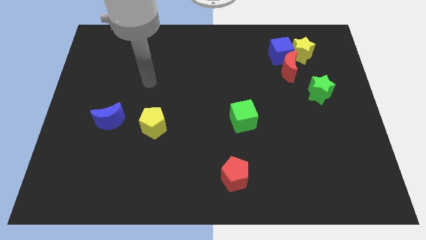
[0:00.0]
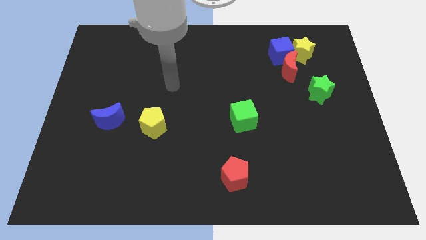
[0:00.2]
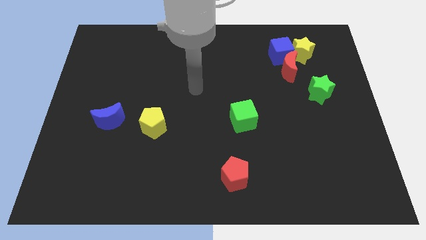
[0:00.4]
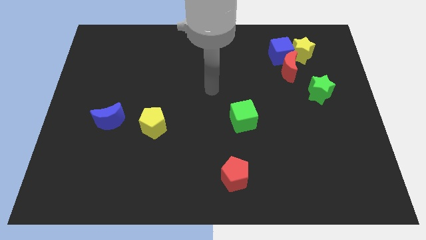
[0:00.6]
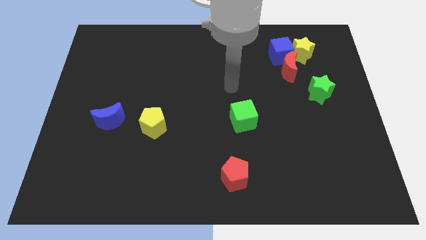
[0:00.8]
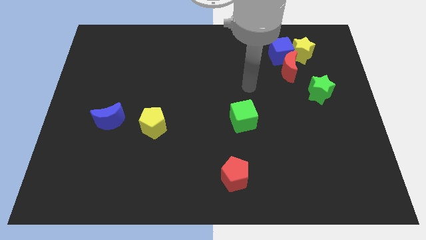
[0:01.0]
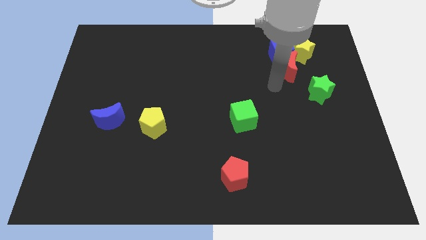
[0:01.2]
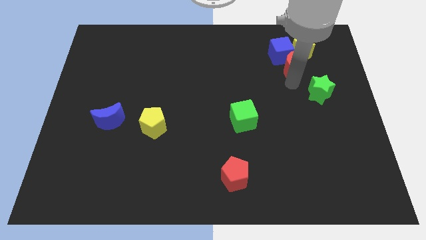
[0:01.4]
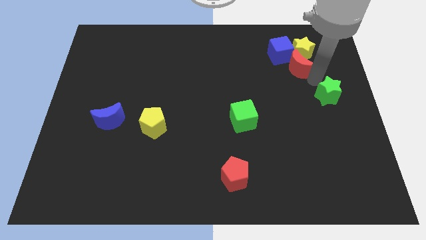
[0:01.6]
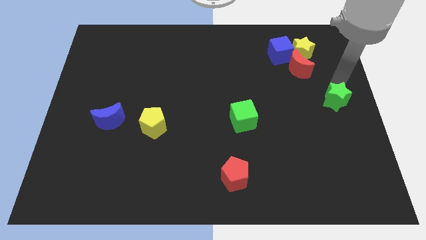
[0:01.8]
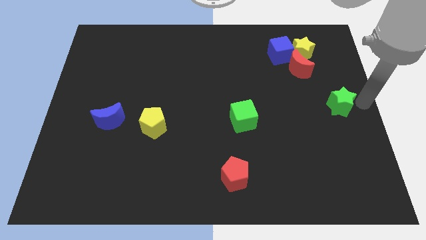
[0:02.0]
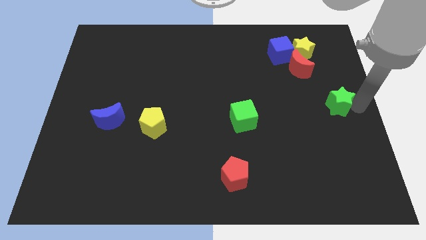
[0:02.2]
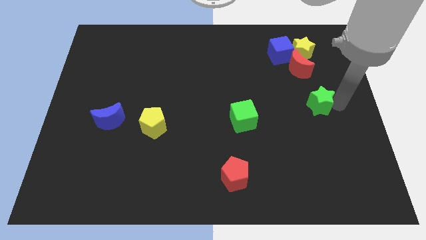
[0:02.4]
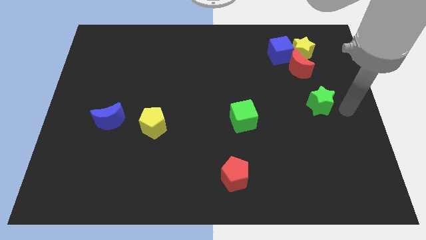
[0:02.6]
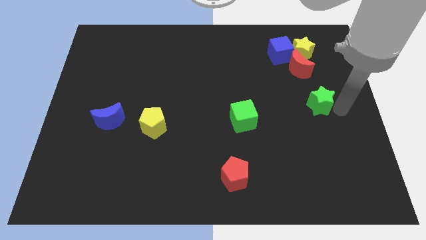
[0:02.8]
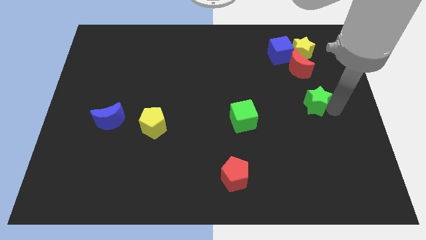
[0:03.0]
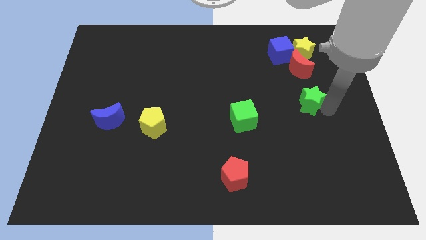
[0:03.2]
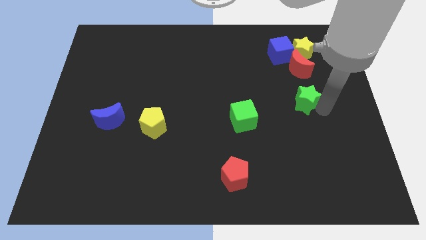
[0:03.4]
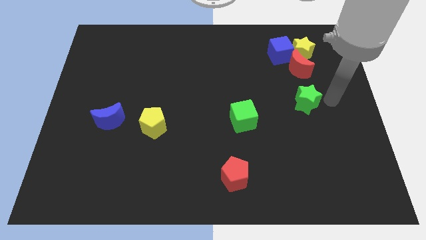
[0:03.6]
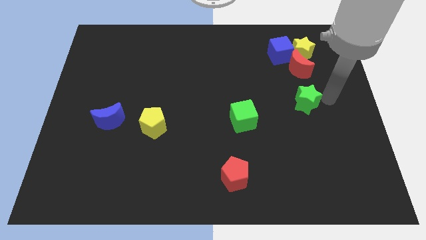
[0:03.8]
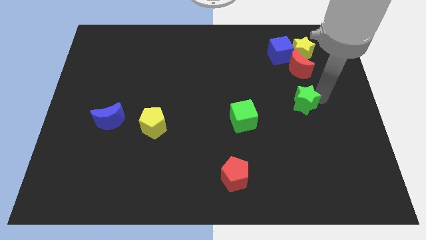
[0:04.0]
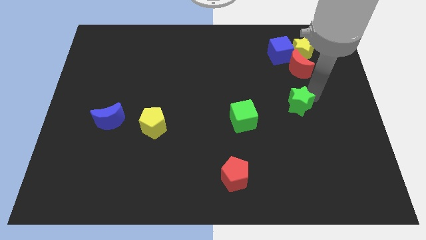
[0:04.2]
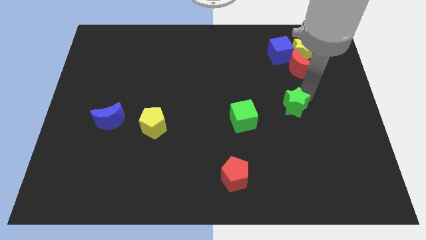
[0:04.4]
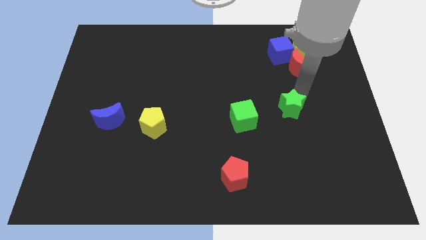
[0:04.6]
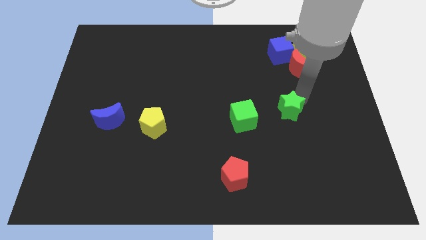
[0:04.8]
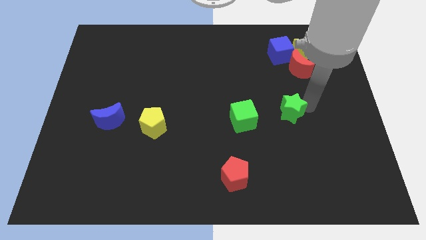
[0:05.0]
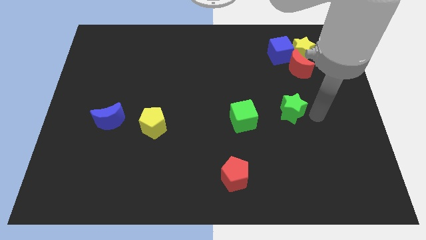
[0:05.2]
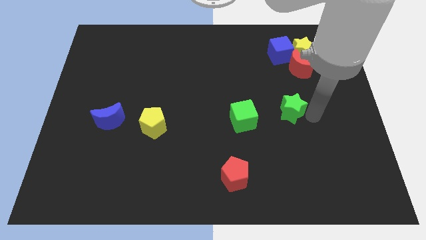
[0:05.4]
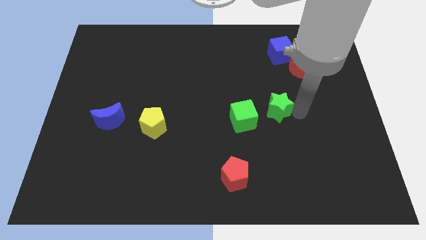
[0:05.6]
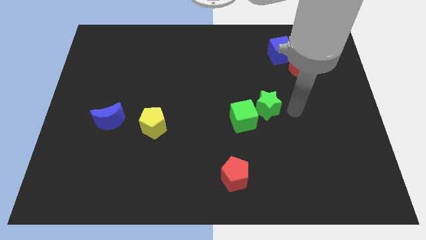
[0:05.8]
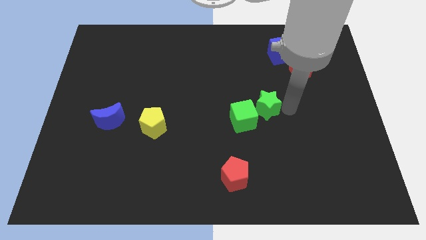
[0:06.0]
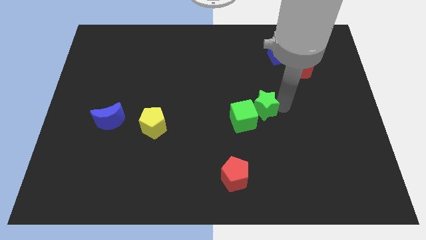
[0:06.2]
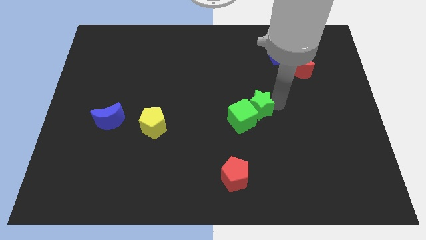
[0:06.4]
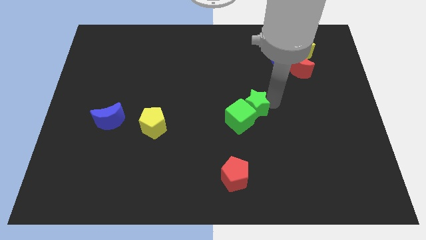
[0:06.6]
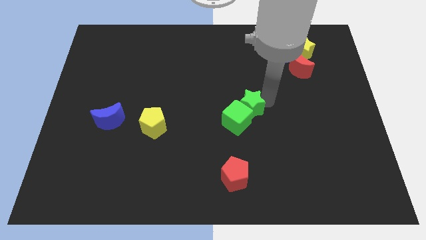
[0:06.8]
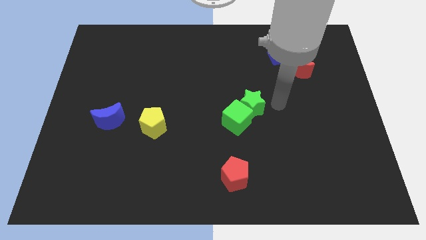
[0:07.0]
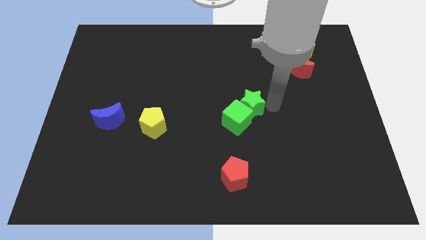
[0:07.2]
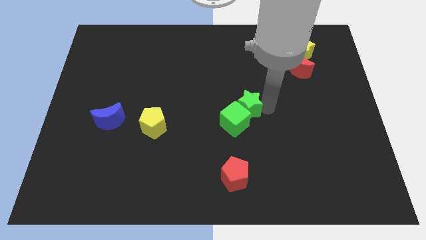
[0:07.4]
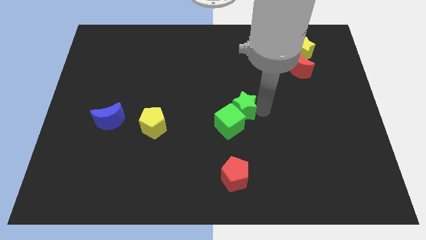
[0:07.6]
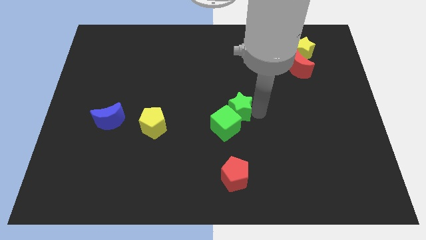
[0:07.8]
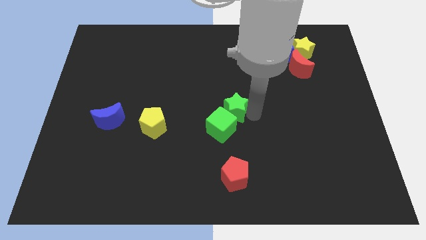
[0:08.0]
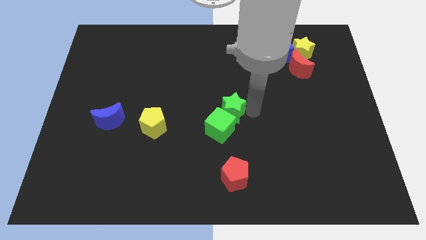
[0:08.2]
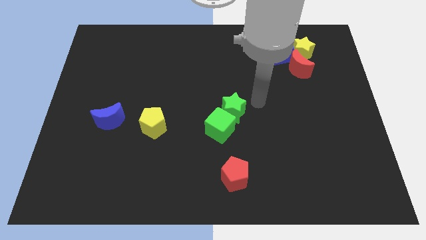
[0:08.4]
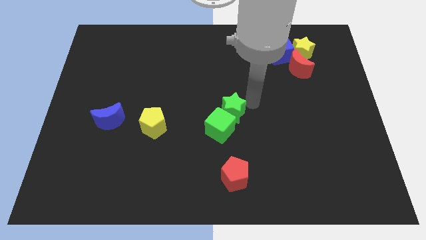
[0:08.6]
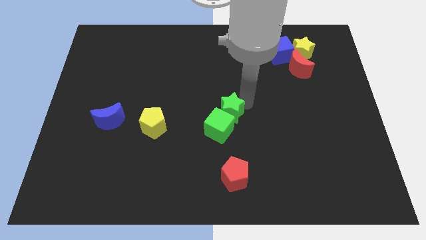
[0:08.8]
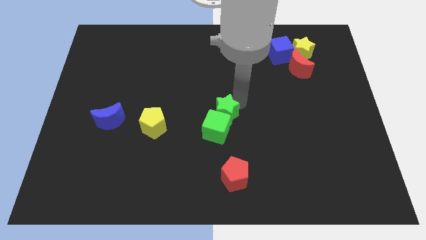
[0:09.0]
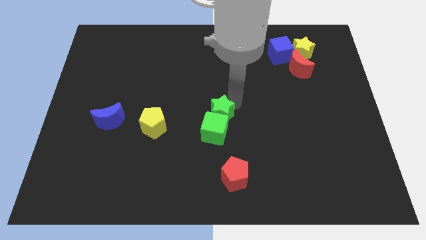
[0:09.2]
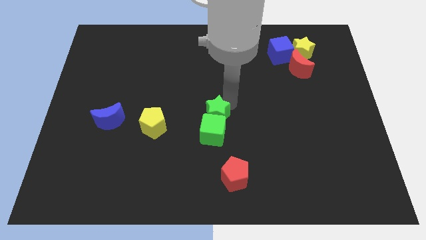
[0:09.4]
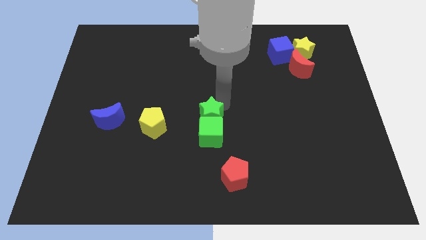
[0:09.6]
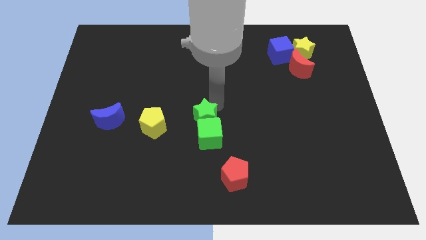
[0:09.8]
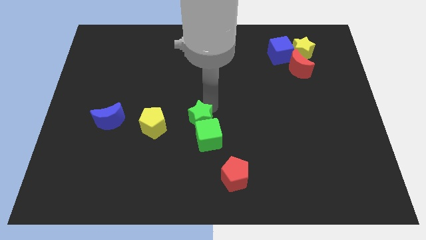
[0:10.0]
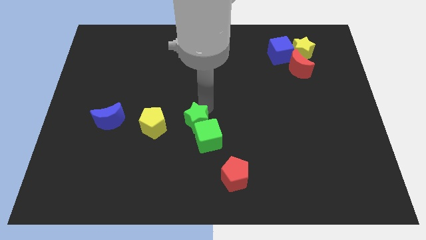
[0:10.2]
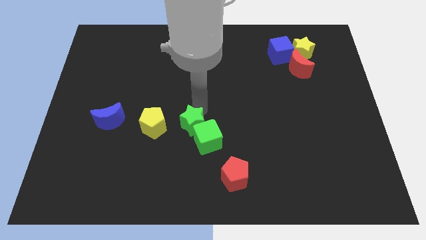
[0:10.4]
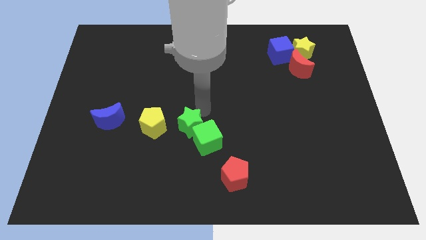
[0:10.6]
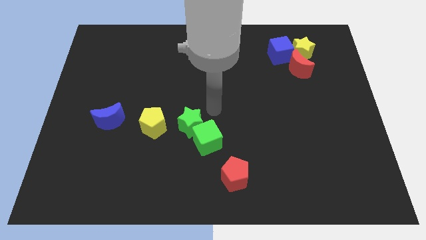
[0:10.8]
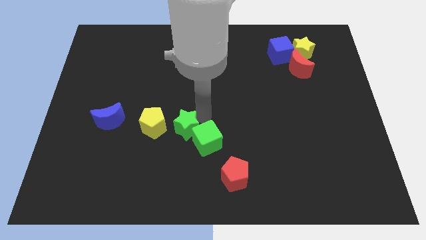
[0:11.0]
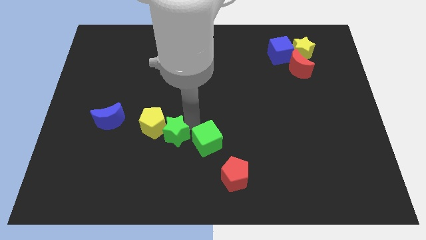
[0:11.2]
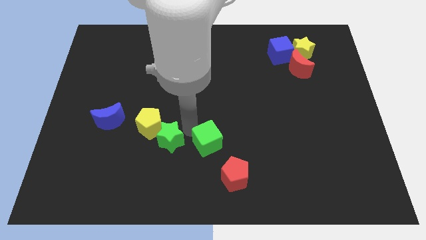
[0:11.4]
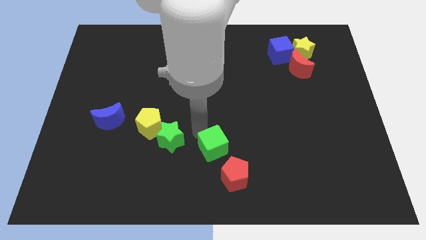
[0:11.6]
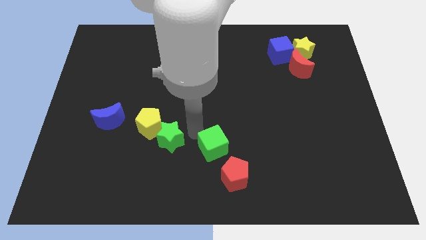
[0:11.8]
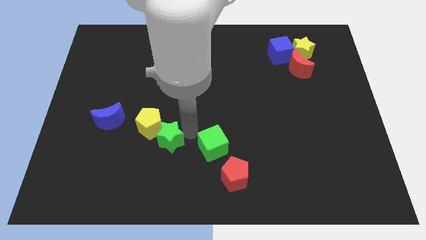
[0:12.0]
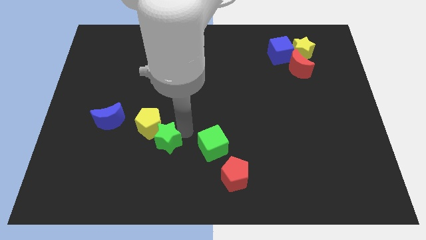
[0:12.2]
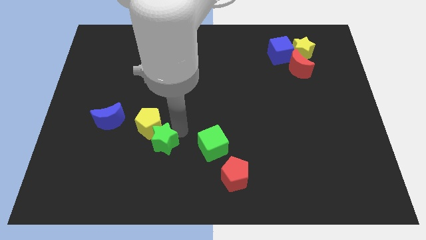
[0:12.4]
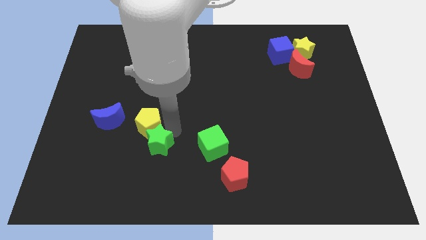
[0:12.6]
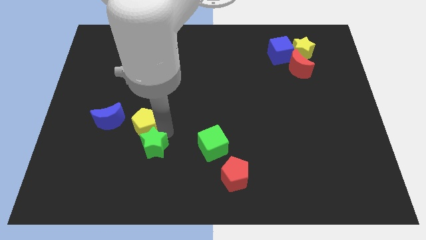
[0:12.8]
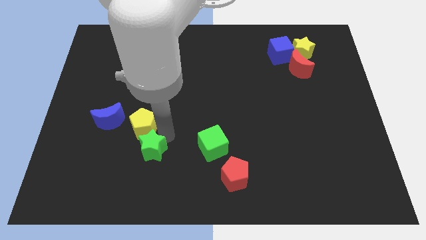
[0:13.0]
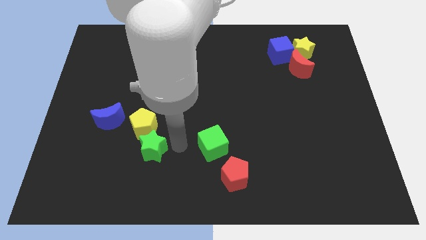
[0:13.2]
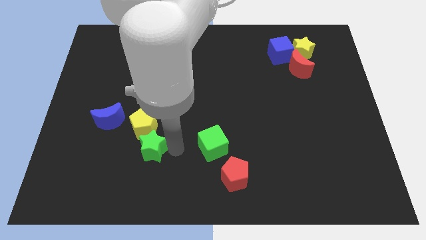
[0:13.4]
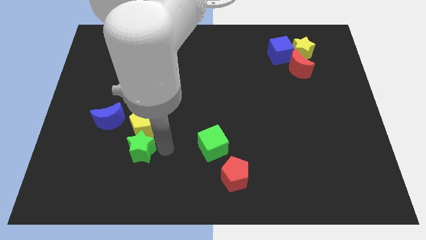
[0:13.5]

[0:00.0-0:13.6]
slide the green star to the bottom left of the yellow pentagon
